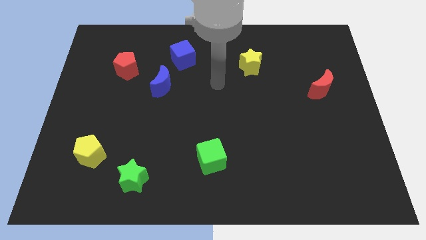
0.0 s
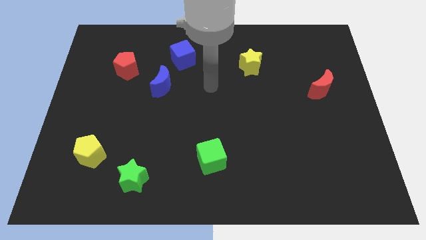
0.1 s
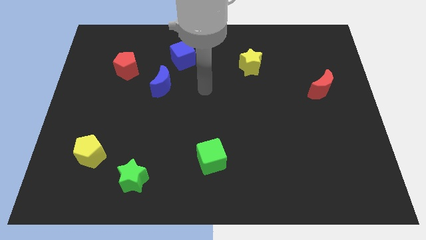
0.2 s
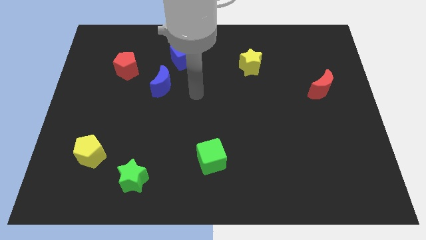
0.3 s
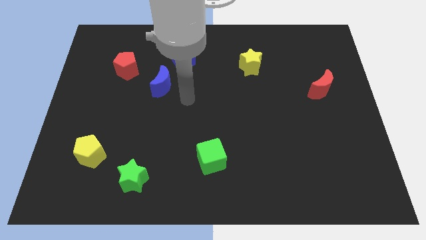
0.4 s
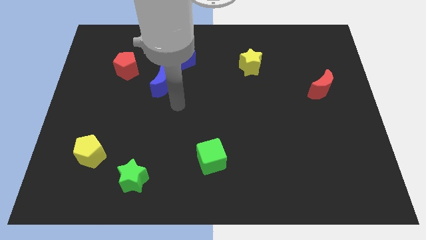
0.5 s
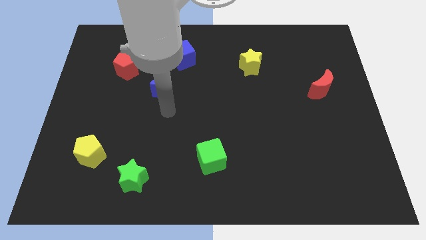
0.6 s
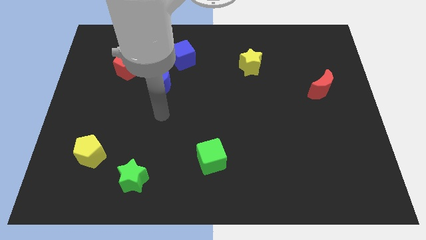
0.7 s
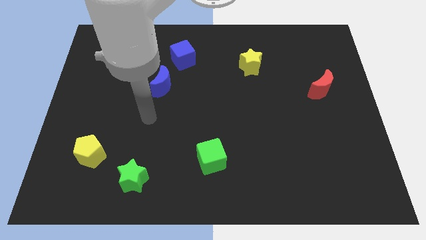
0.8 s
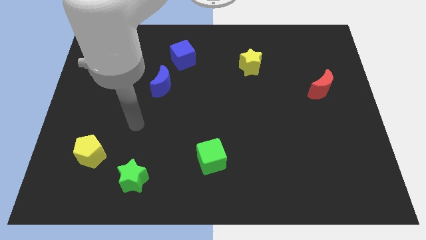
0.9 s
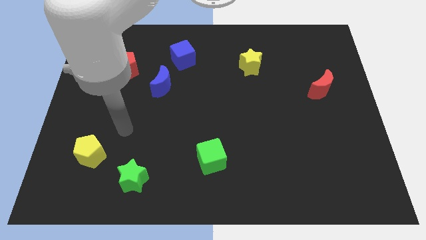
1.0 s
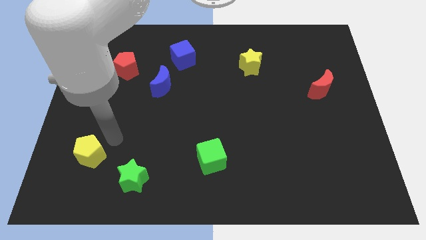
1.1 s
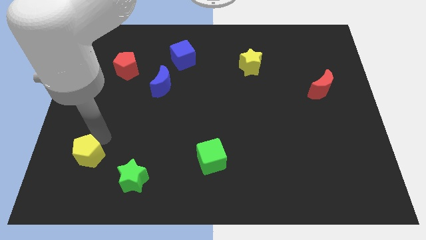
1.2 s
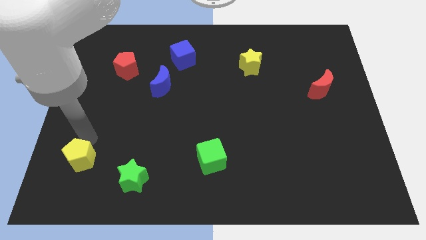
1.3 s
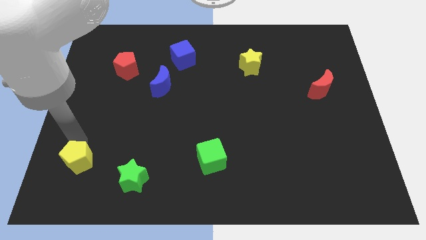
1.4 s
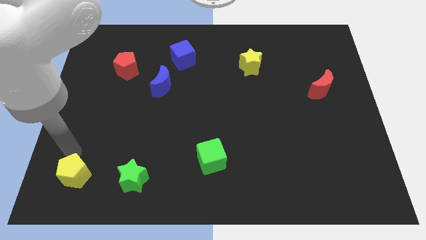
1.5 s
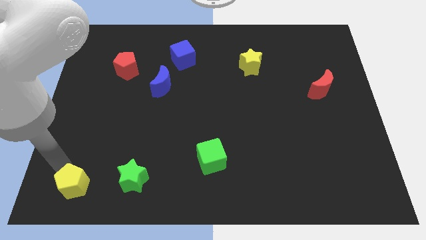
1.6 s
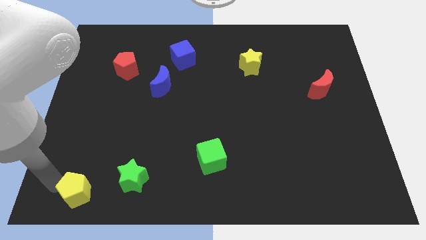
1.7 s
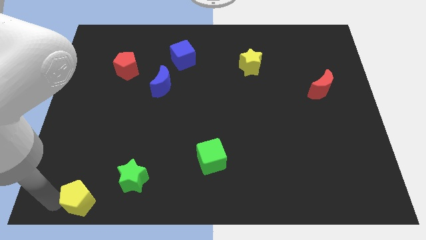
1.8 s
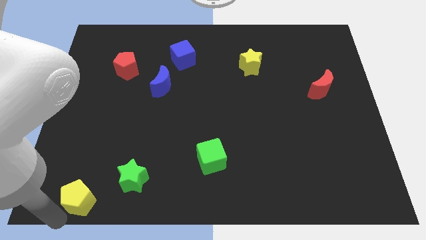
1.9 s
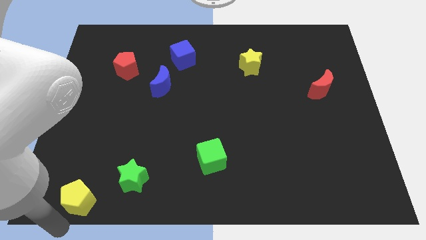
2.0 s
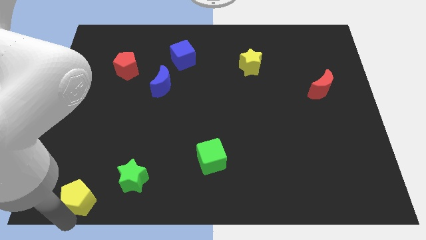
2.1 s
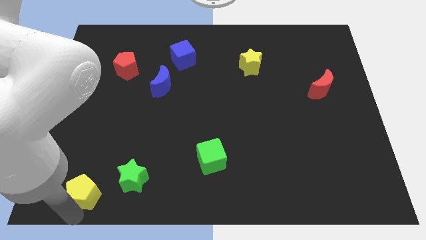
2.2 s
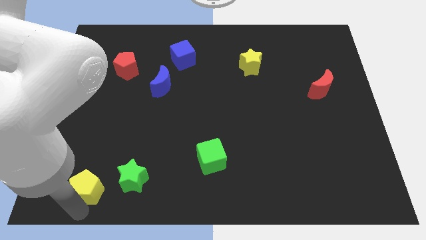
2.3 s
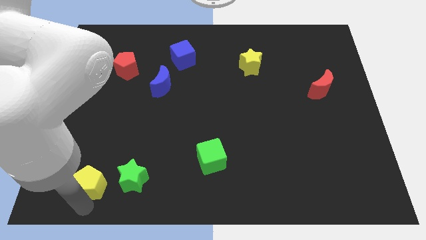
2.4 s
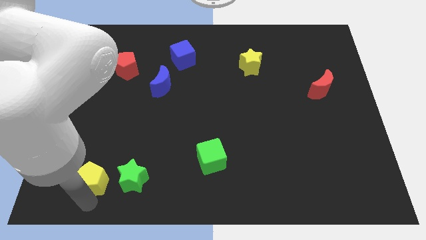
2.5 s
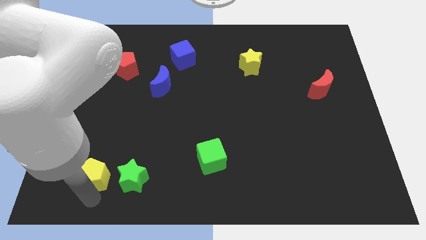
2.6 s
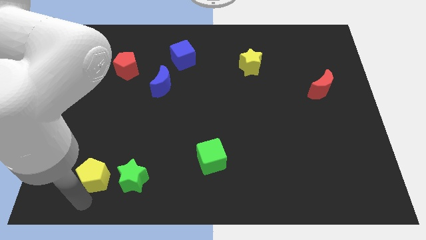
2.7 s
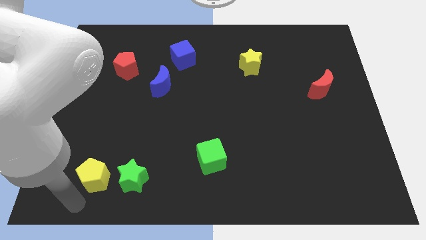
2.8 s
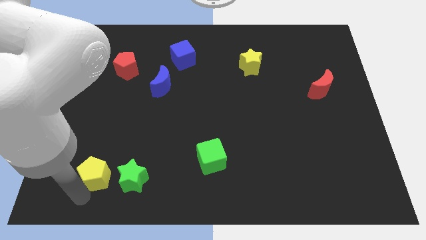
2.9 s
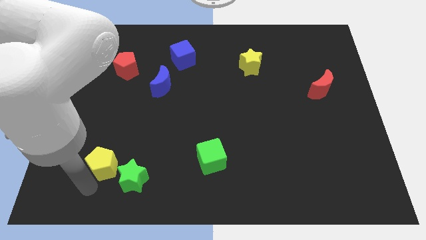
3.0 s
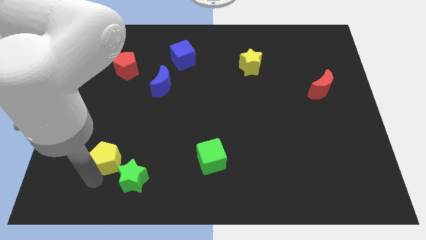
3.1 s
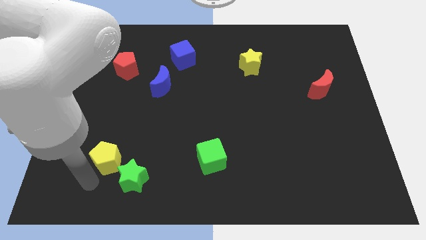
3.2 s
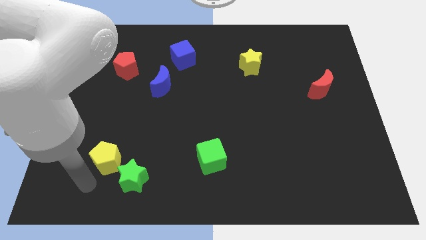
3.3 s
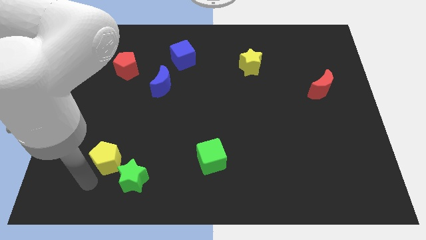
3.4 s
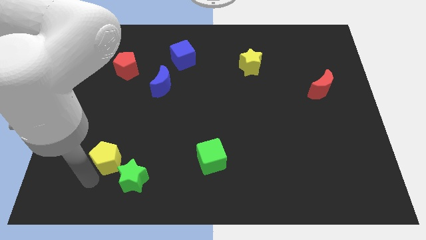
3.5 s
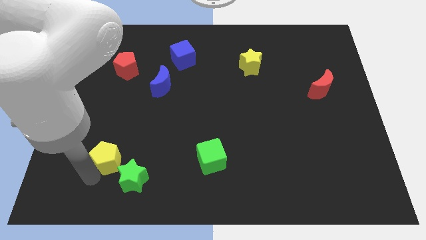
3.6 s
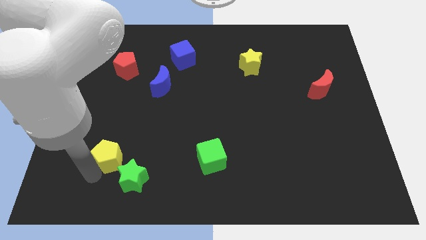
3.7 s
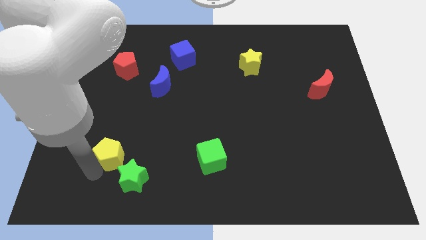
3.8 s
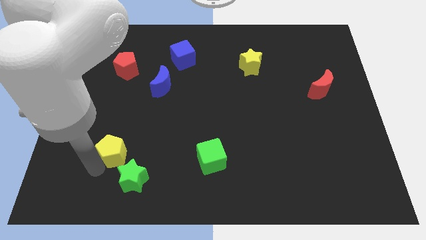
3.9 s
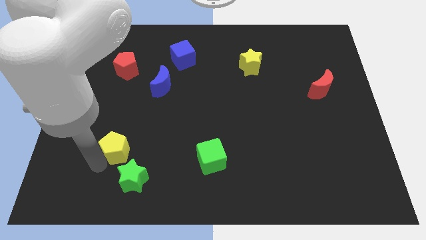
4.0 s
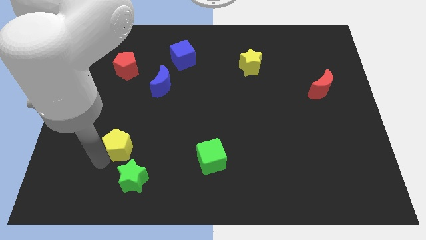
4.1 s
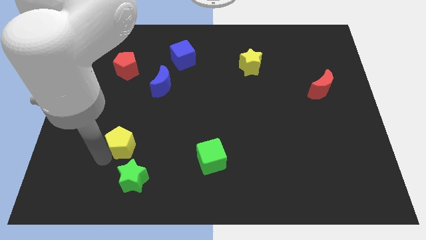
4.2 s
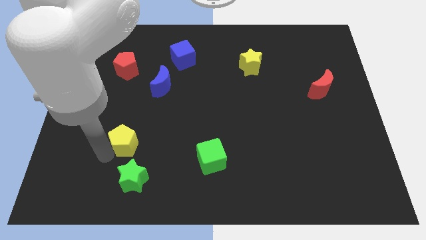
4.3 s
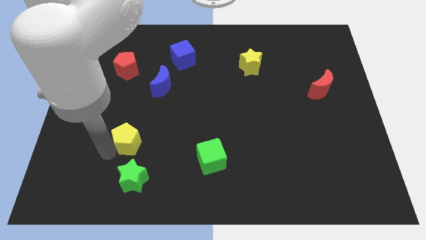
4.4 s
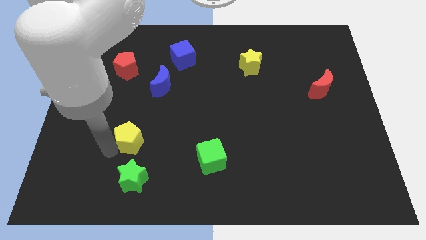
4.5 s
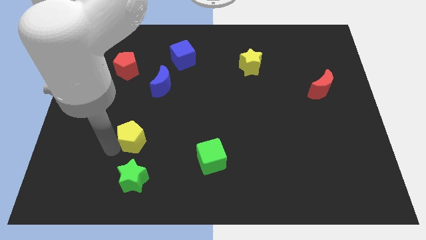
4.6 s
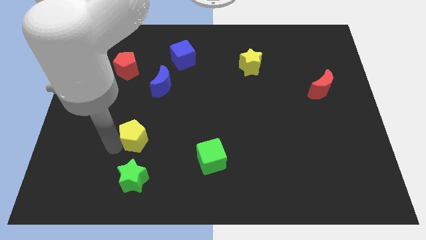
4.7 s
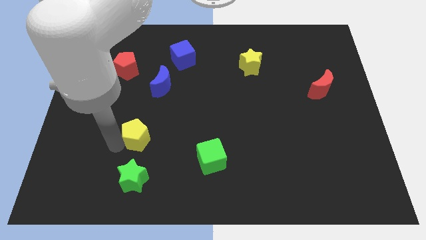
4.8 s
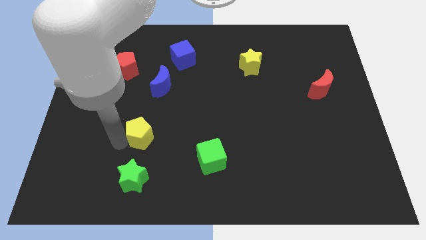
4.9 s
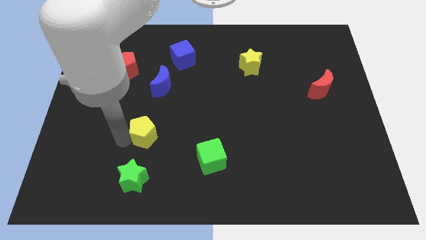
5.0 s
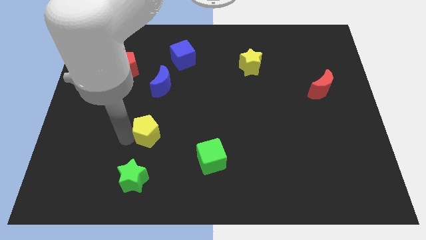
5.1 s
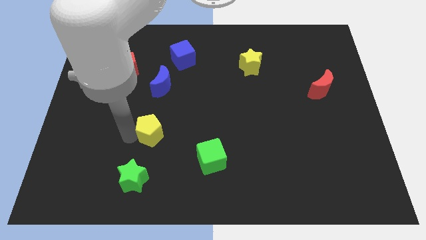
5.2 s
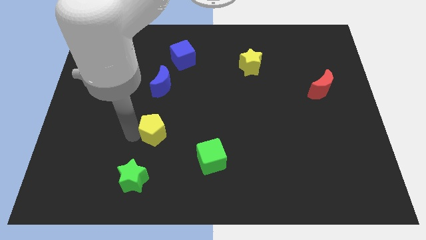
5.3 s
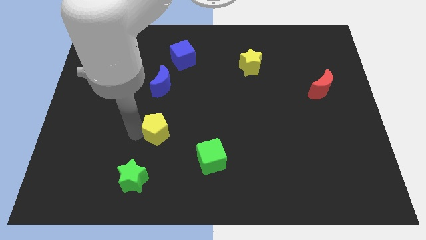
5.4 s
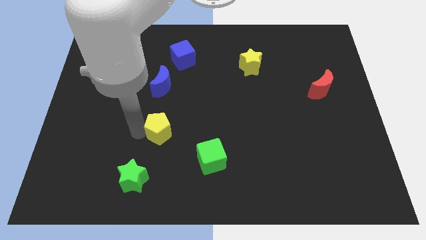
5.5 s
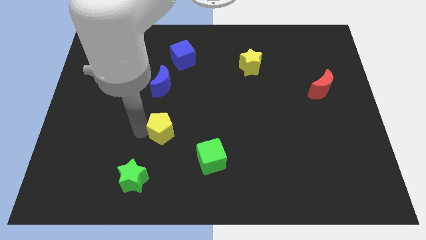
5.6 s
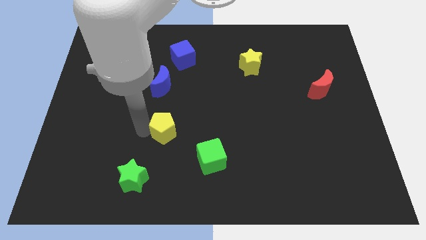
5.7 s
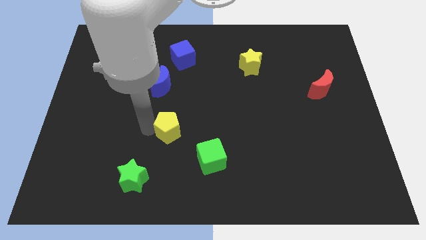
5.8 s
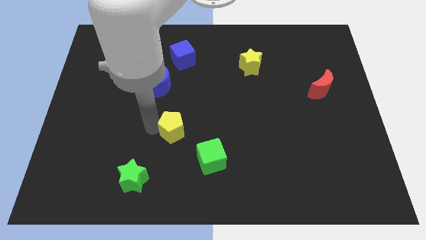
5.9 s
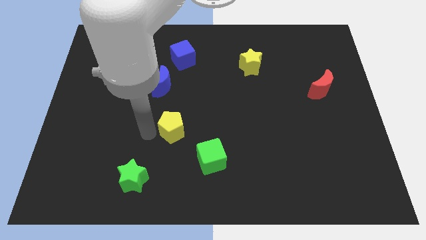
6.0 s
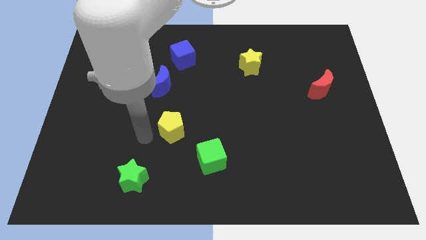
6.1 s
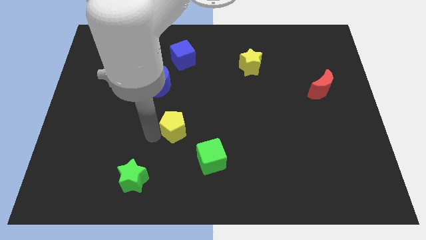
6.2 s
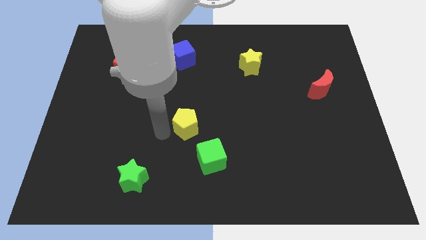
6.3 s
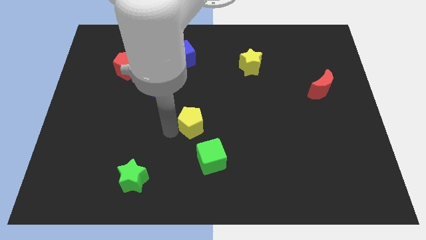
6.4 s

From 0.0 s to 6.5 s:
move the yellow pentagon to the top of the green cube
